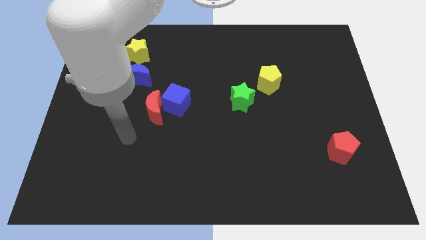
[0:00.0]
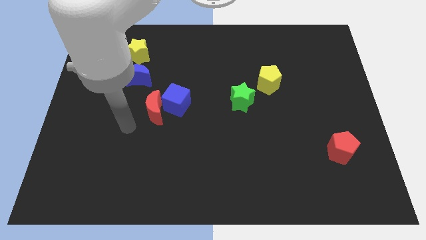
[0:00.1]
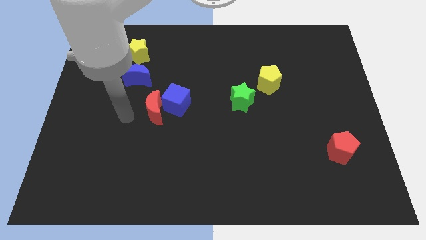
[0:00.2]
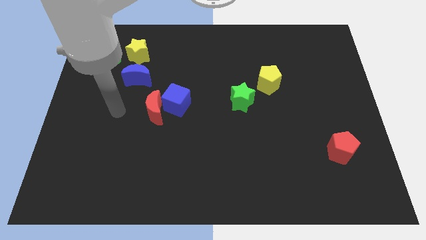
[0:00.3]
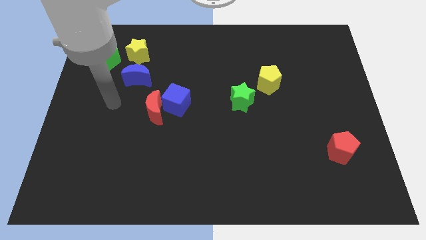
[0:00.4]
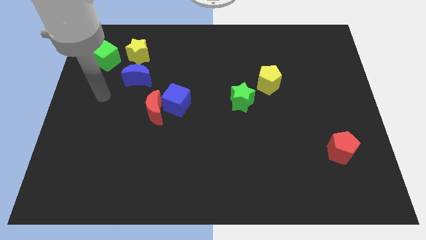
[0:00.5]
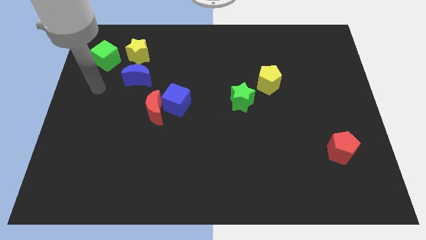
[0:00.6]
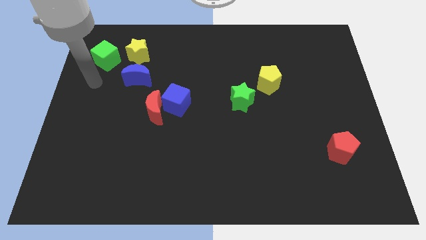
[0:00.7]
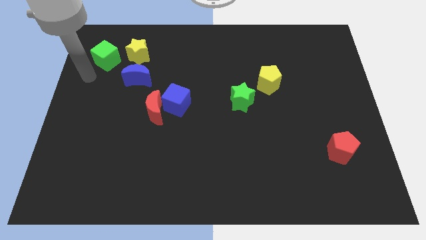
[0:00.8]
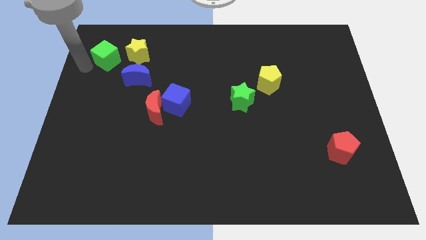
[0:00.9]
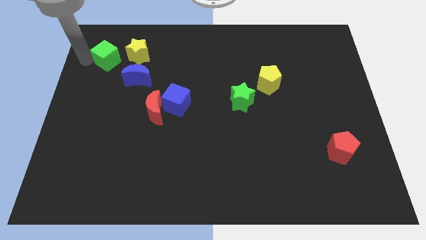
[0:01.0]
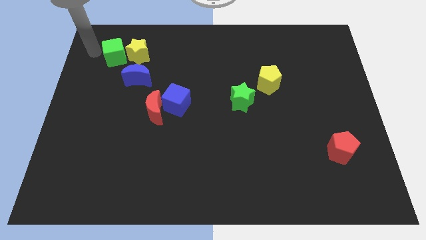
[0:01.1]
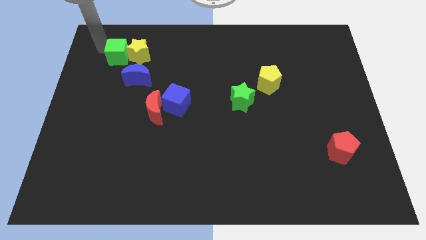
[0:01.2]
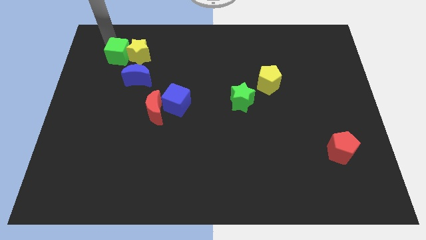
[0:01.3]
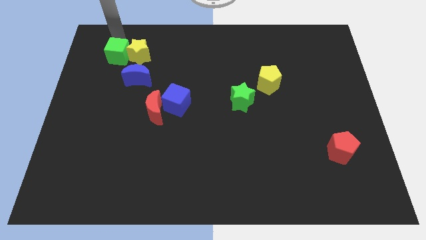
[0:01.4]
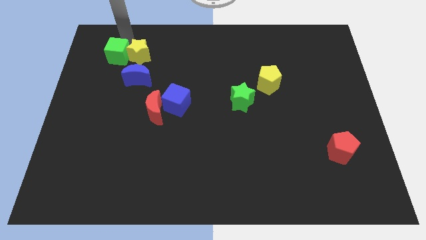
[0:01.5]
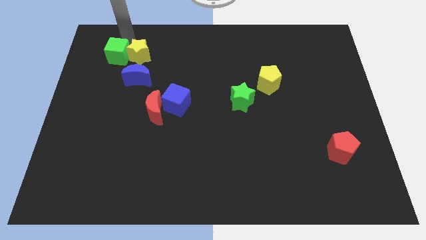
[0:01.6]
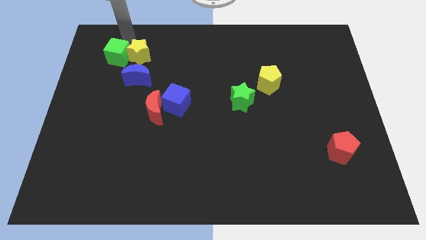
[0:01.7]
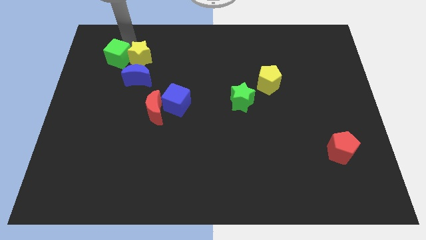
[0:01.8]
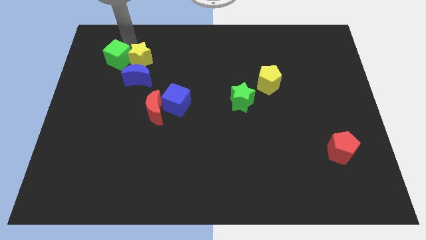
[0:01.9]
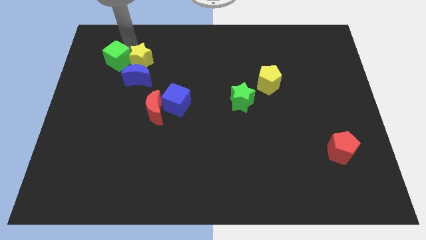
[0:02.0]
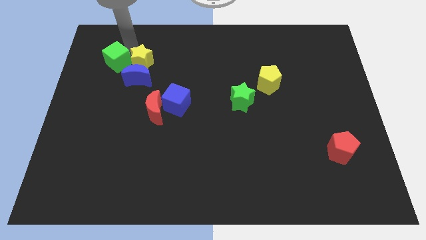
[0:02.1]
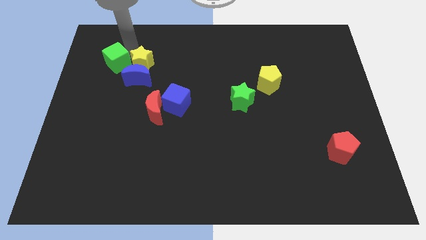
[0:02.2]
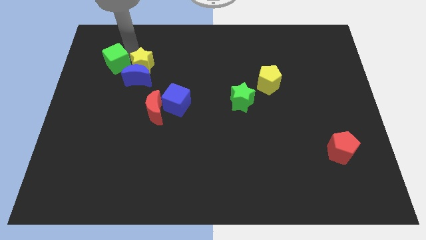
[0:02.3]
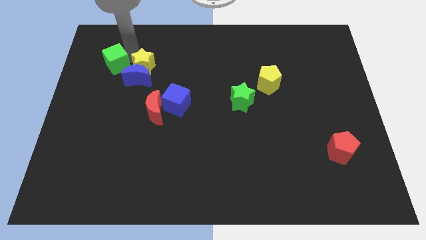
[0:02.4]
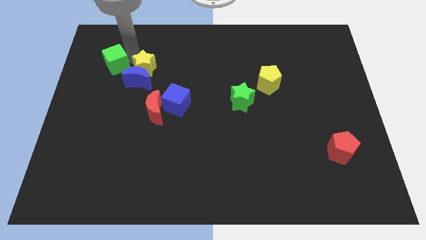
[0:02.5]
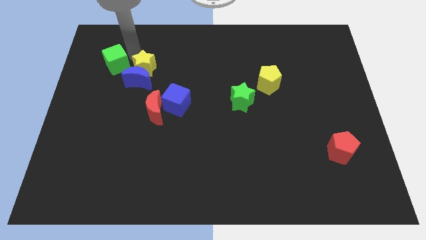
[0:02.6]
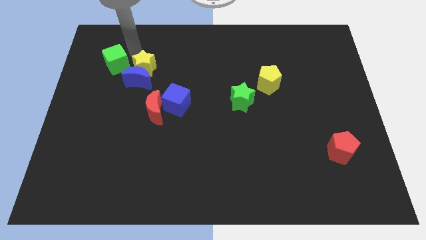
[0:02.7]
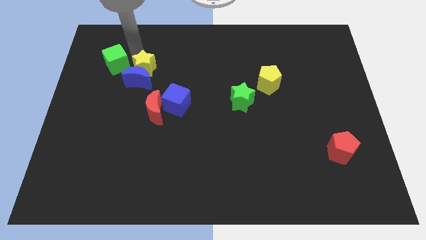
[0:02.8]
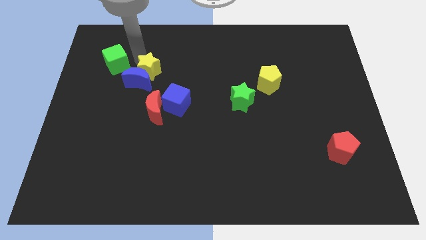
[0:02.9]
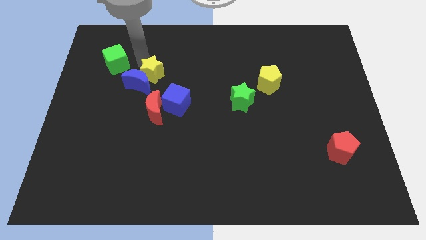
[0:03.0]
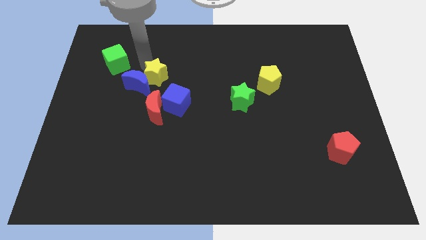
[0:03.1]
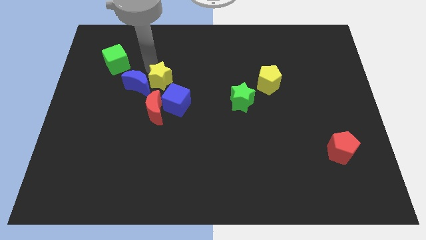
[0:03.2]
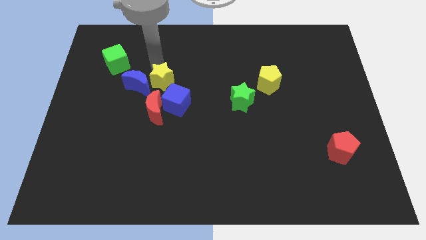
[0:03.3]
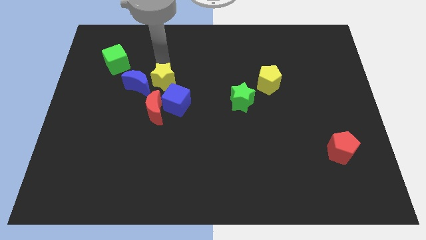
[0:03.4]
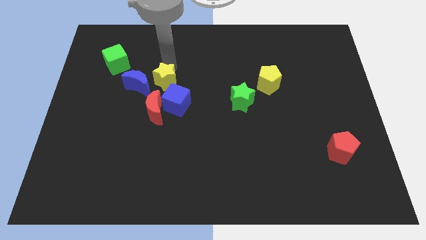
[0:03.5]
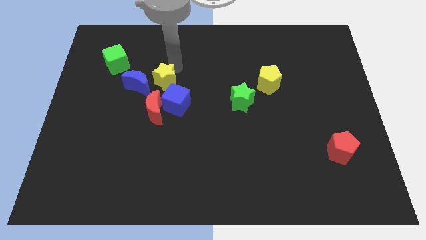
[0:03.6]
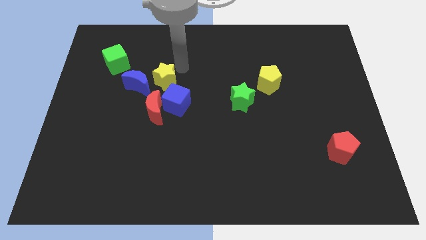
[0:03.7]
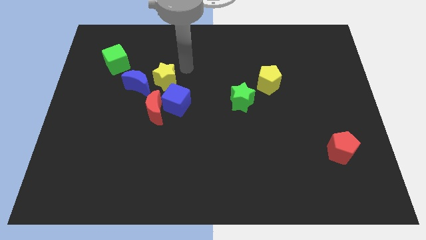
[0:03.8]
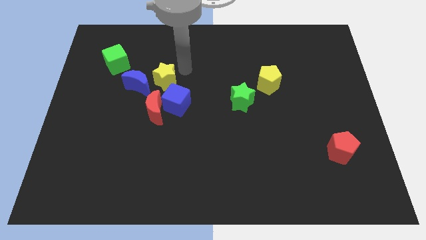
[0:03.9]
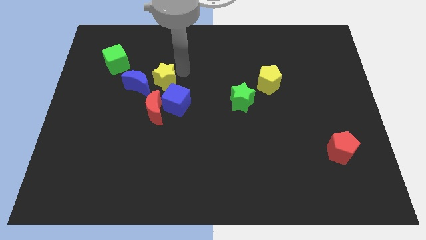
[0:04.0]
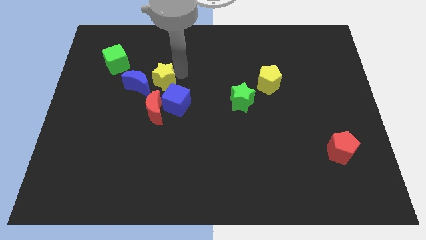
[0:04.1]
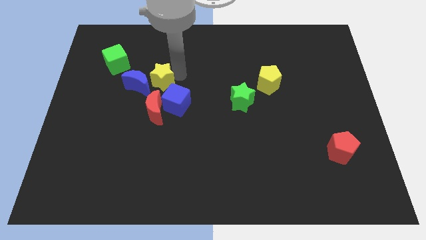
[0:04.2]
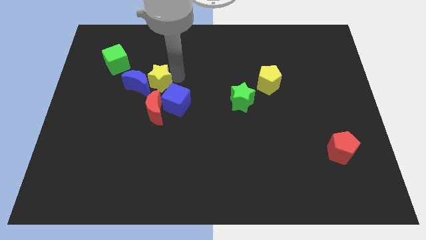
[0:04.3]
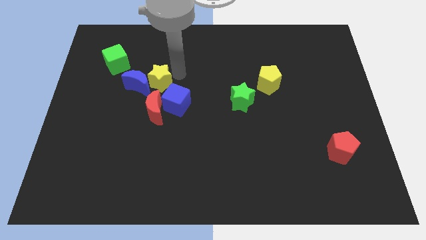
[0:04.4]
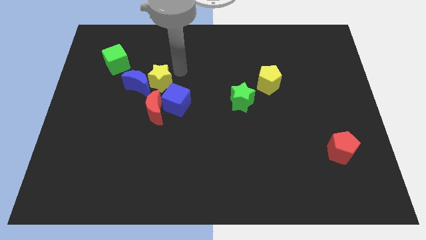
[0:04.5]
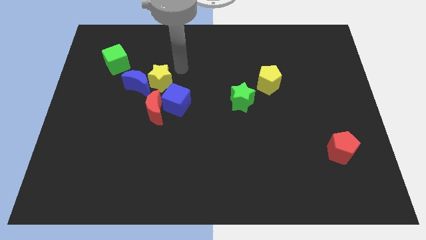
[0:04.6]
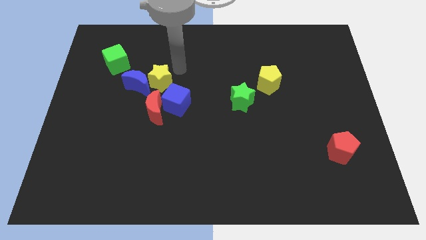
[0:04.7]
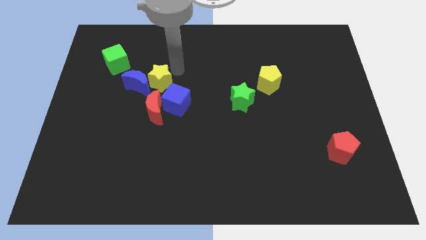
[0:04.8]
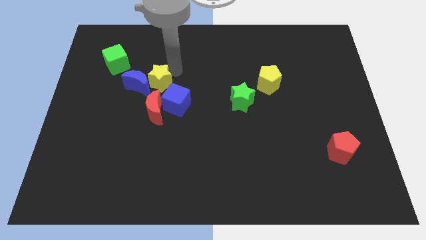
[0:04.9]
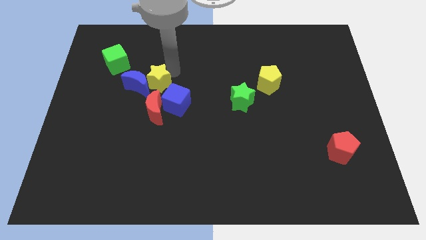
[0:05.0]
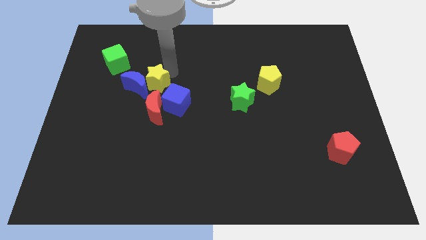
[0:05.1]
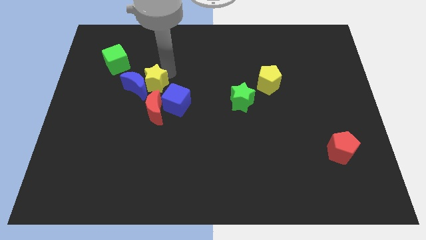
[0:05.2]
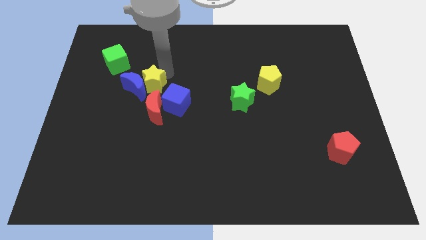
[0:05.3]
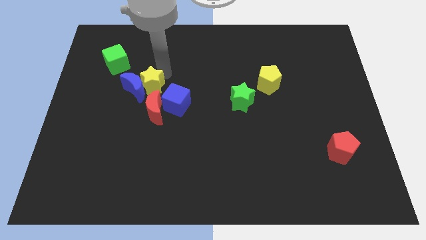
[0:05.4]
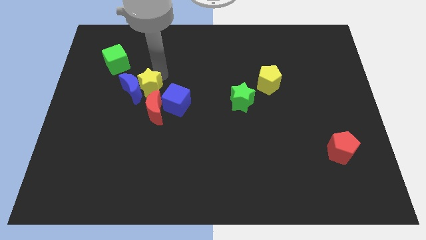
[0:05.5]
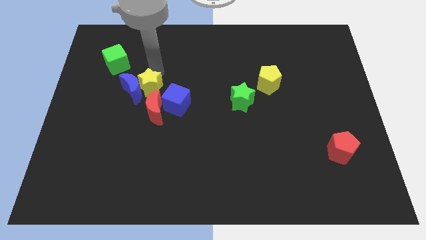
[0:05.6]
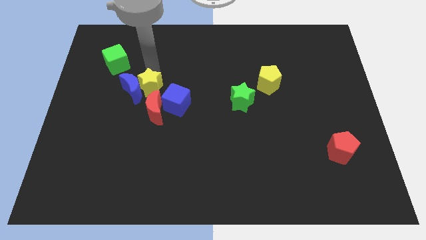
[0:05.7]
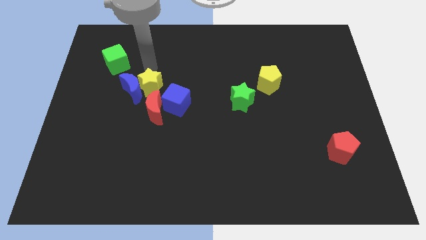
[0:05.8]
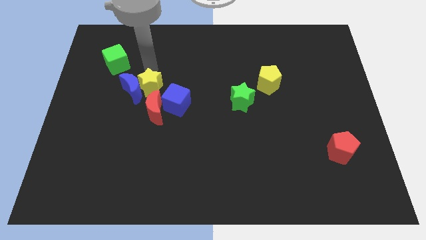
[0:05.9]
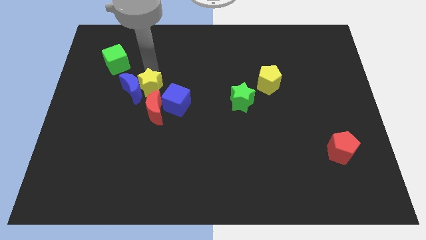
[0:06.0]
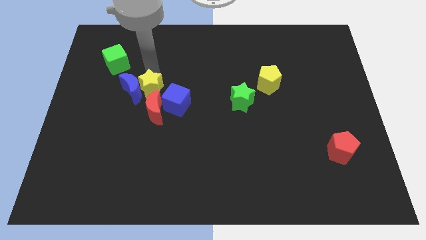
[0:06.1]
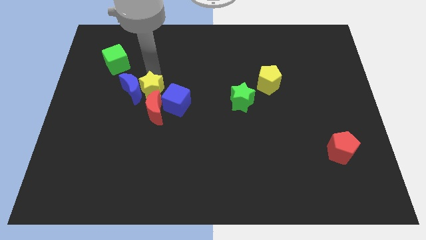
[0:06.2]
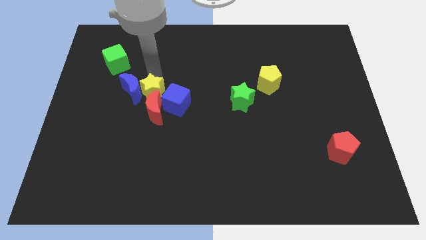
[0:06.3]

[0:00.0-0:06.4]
move the yellow star close to the red moon

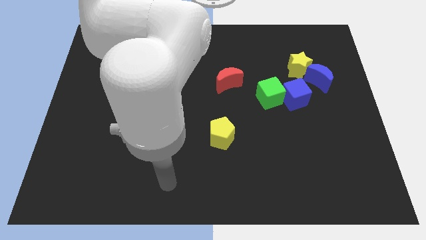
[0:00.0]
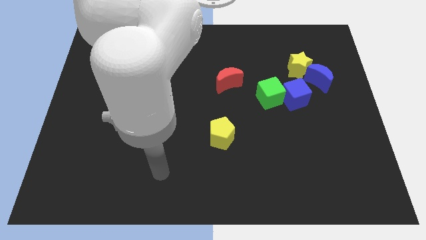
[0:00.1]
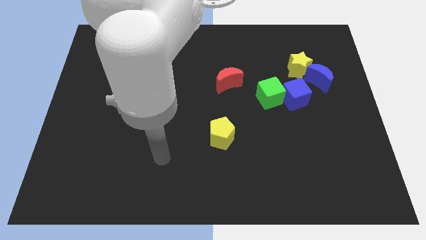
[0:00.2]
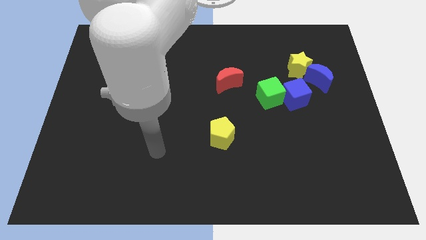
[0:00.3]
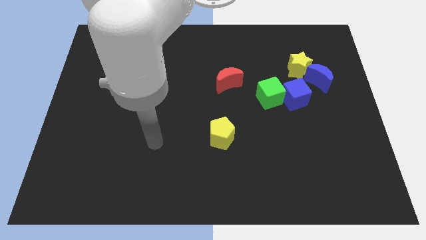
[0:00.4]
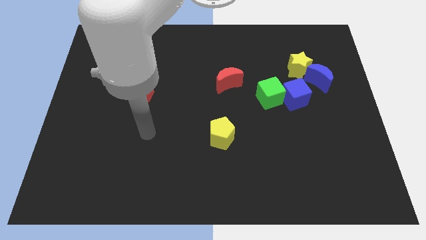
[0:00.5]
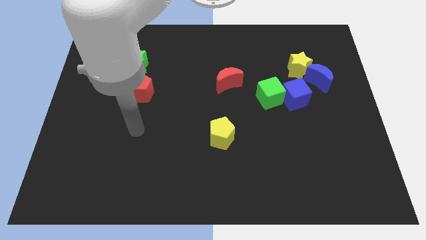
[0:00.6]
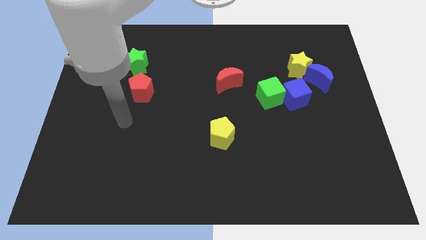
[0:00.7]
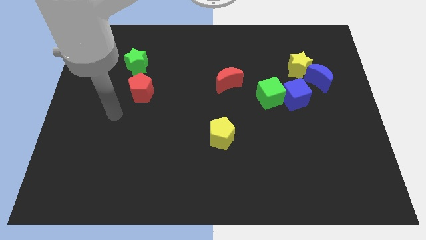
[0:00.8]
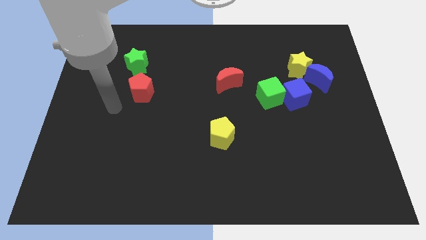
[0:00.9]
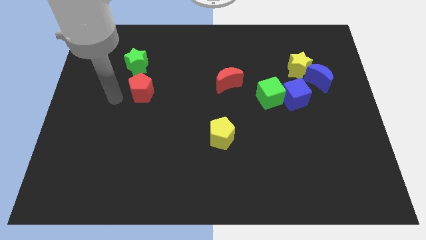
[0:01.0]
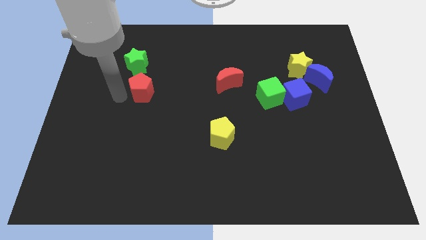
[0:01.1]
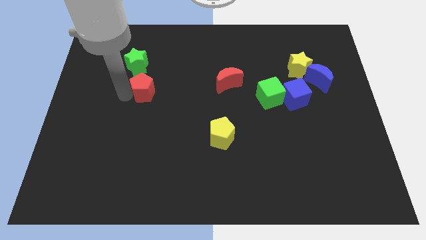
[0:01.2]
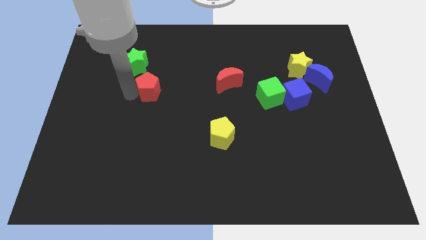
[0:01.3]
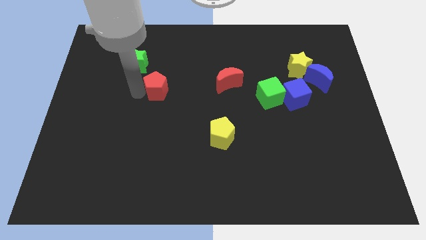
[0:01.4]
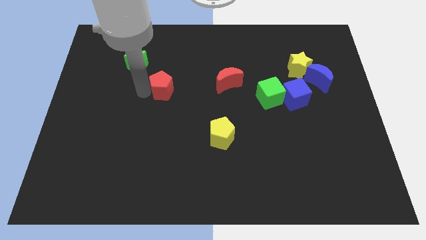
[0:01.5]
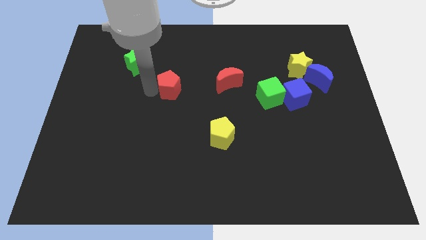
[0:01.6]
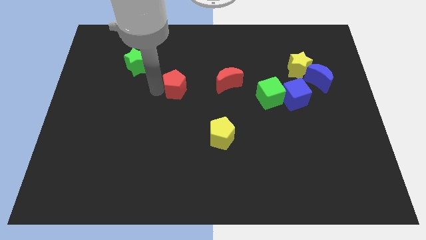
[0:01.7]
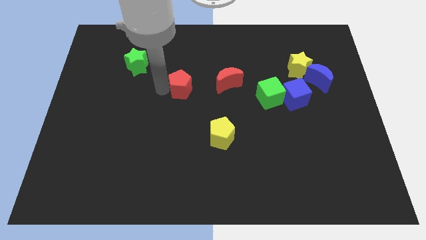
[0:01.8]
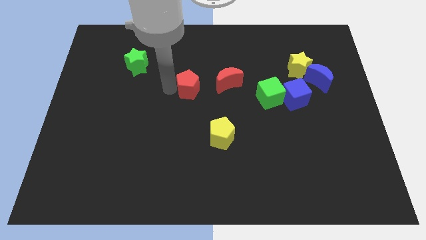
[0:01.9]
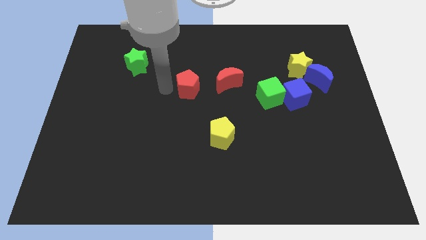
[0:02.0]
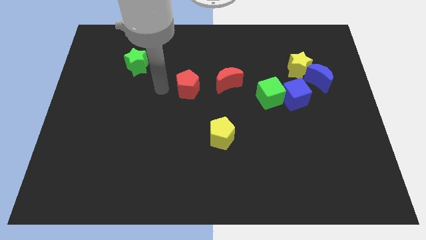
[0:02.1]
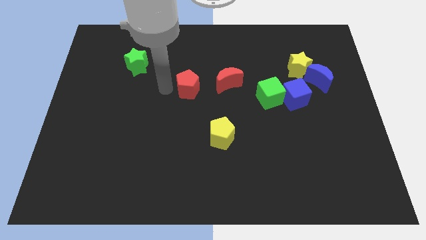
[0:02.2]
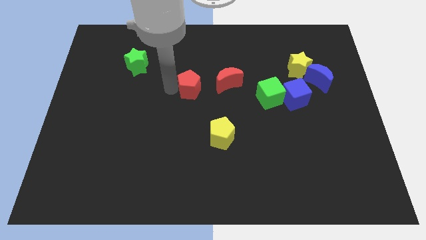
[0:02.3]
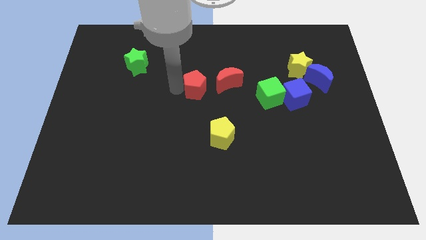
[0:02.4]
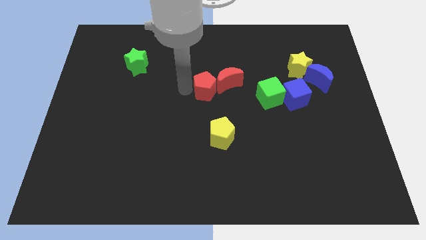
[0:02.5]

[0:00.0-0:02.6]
slide the red pentagon towards the red moon
